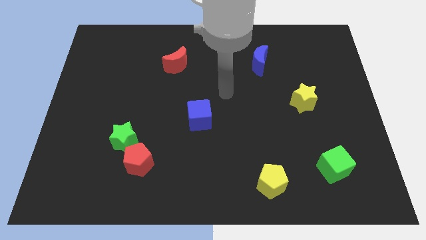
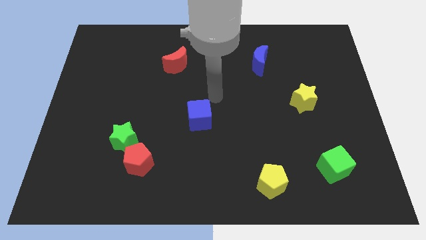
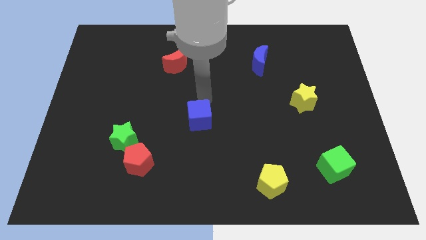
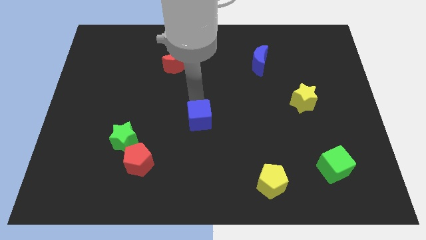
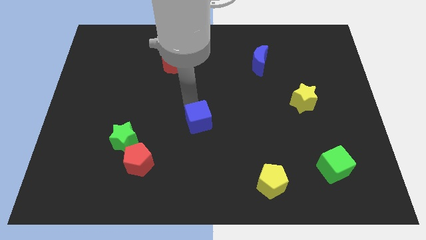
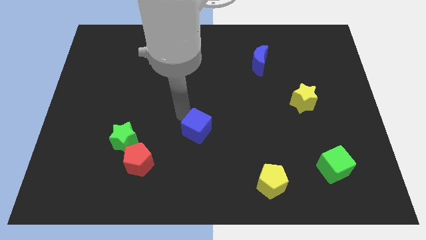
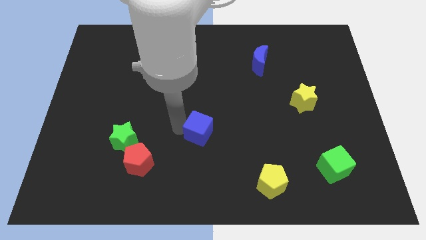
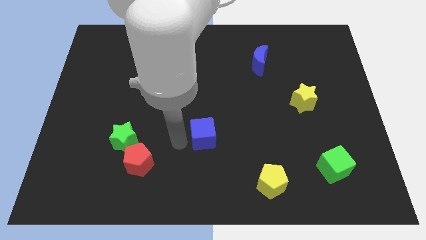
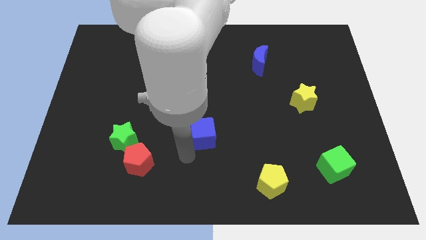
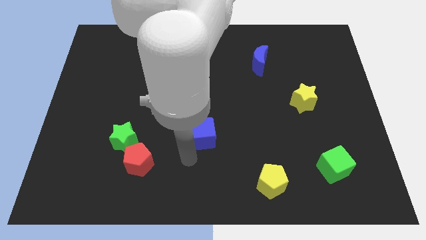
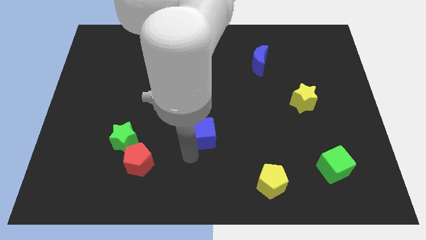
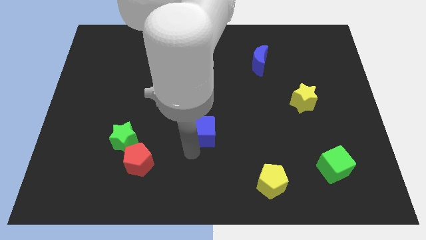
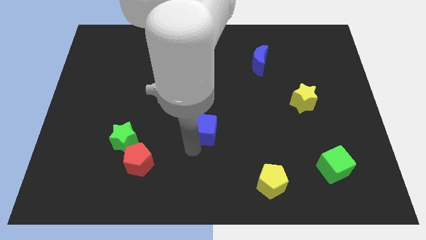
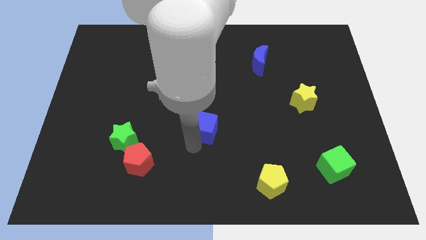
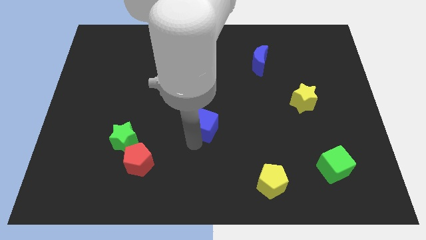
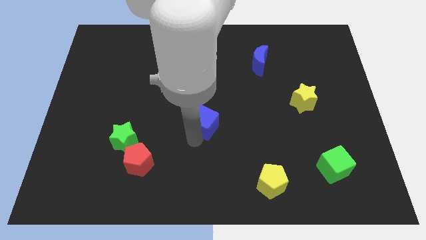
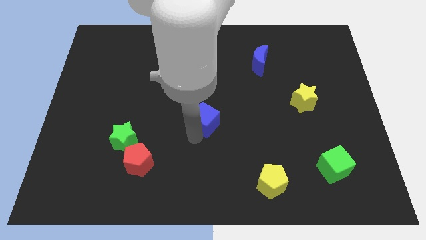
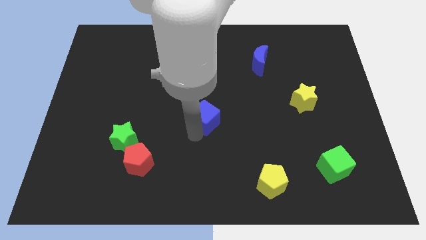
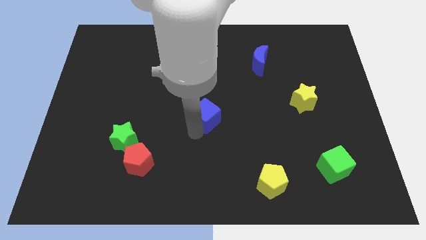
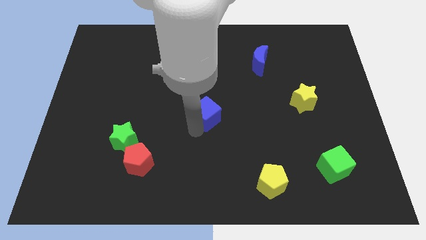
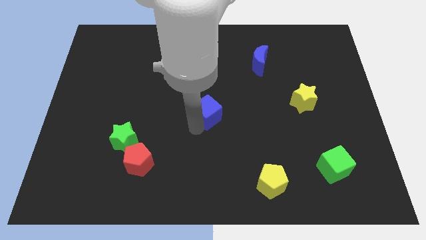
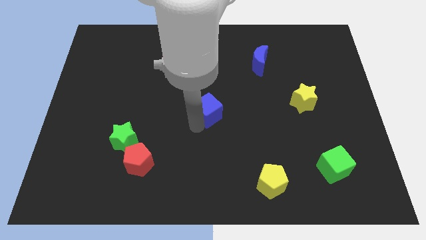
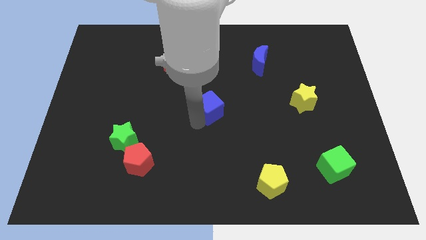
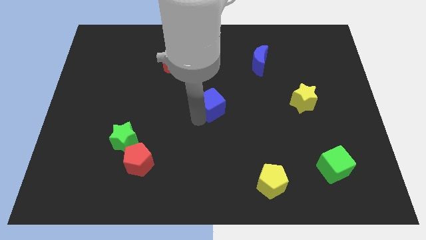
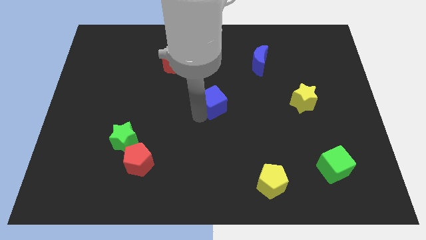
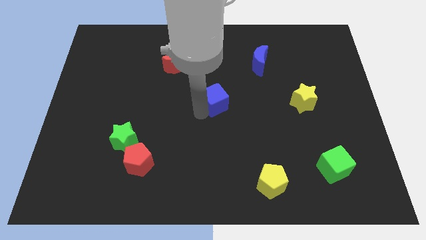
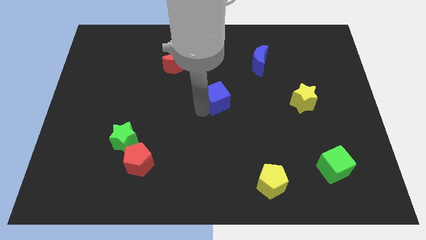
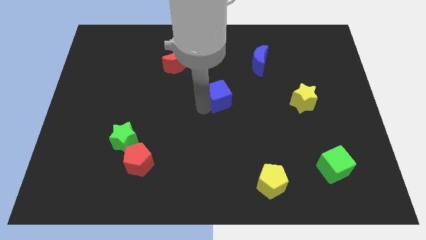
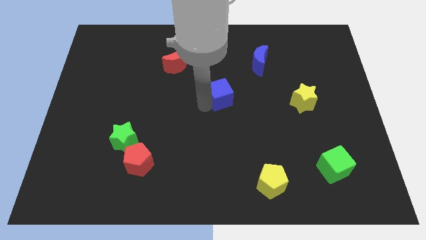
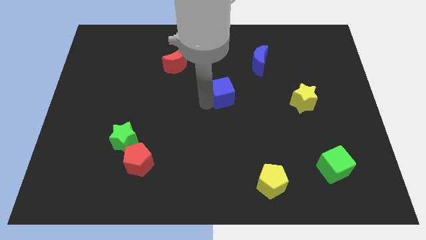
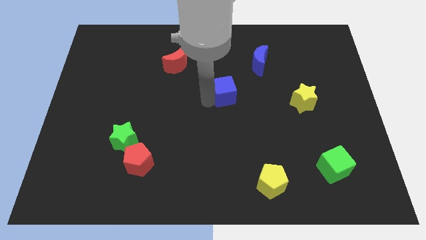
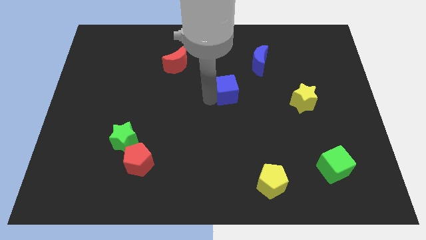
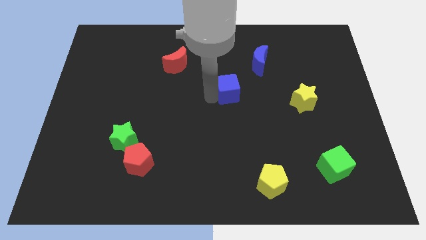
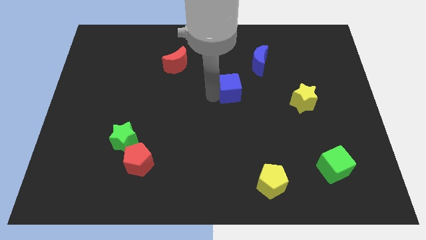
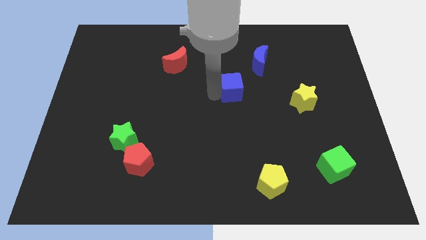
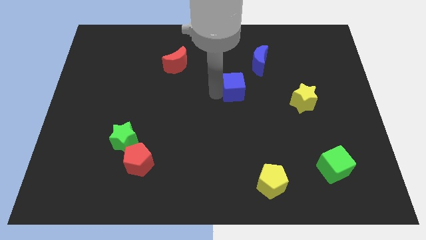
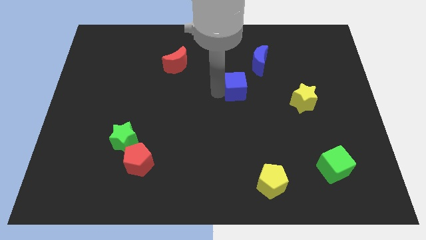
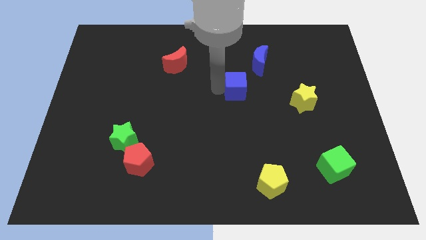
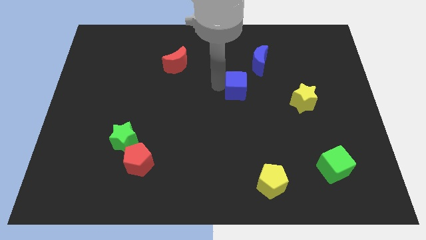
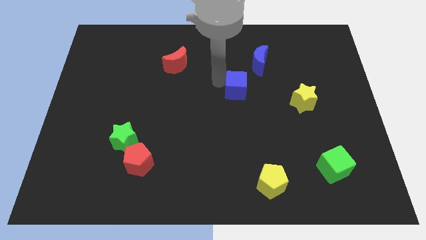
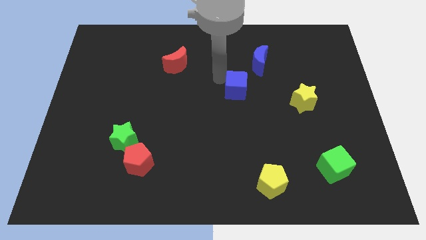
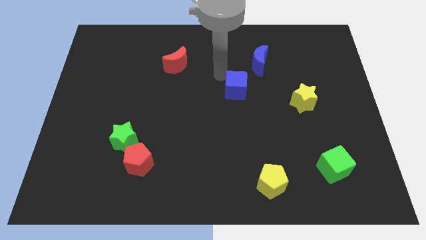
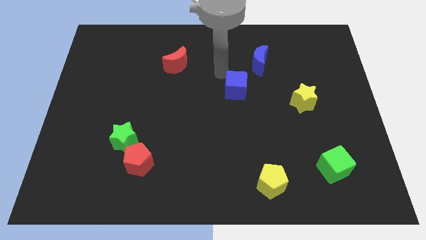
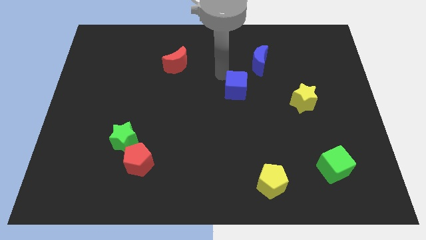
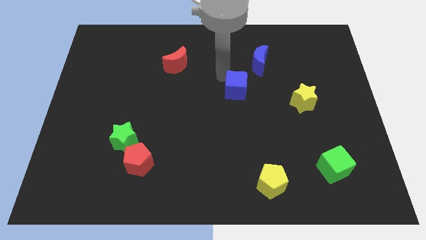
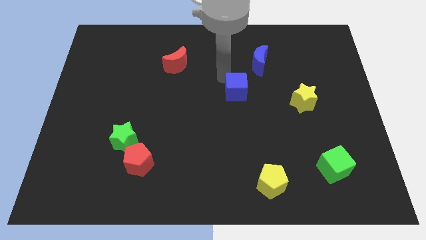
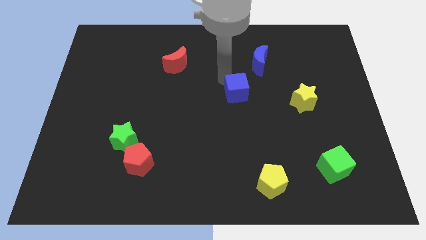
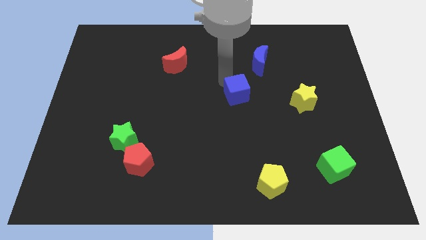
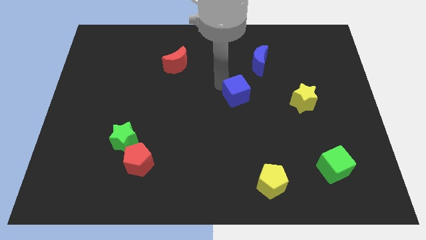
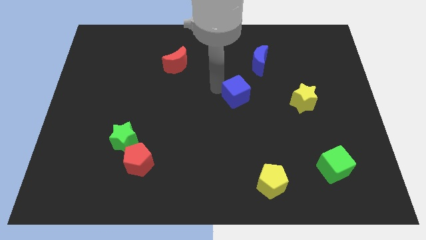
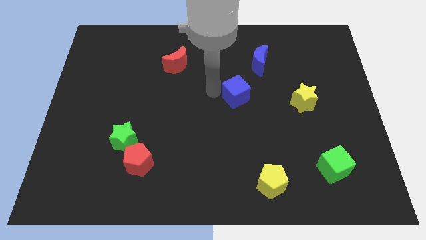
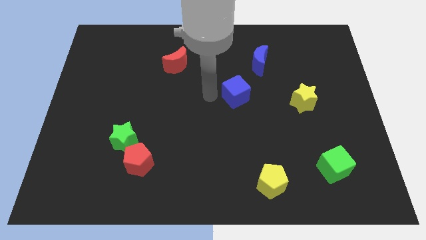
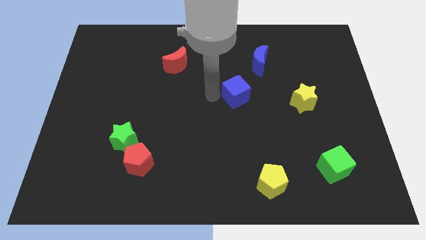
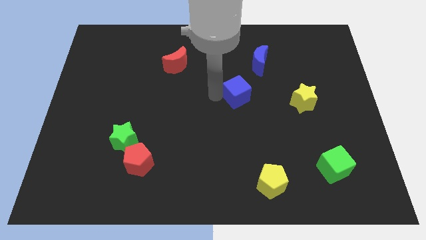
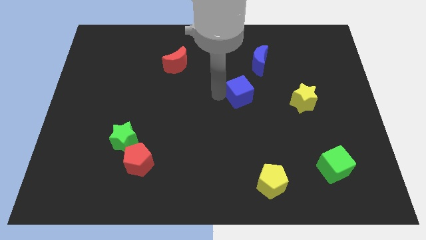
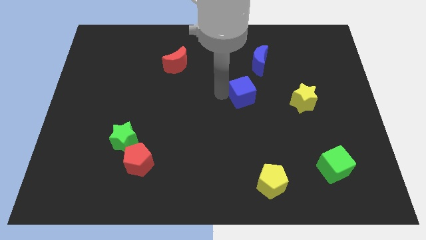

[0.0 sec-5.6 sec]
put the blue cube below the blue moon

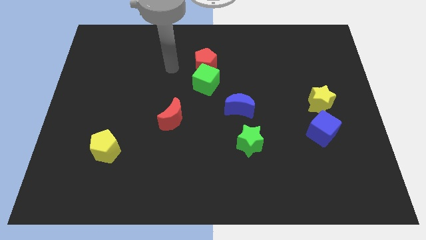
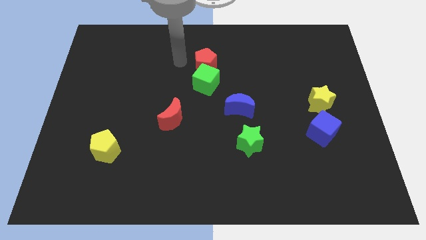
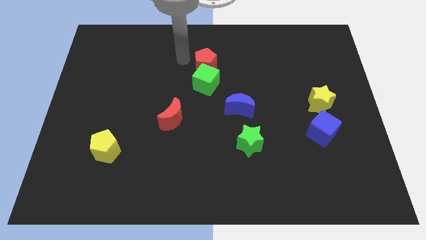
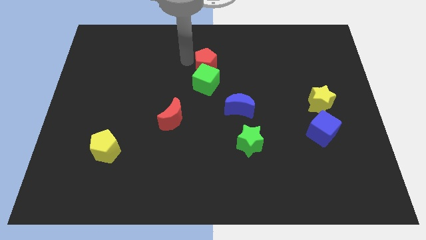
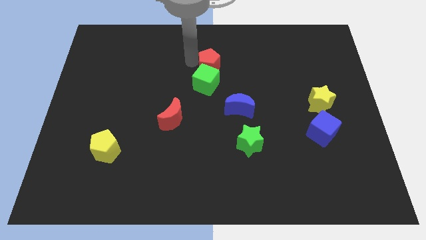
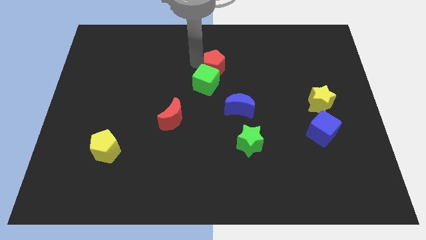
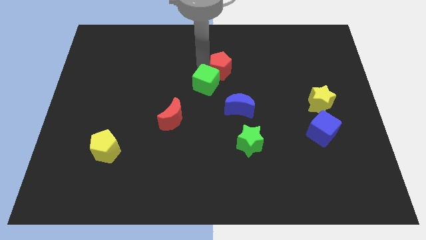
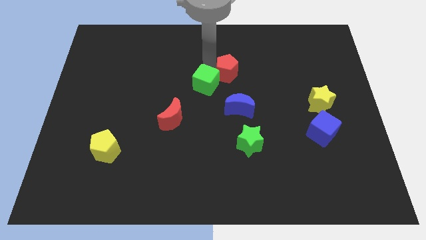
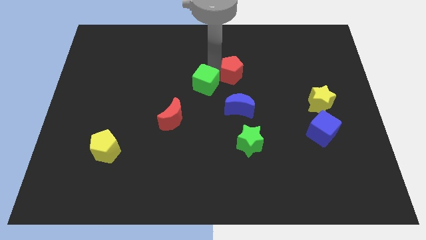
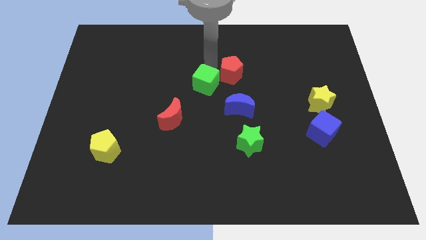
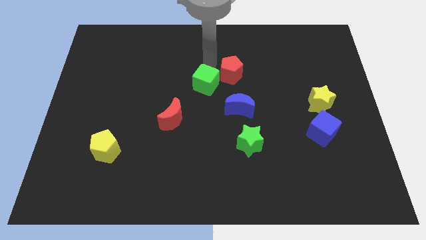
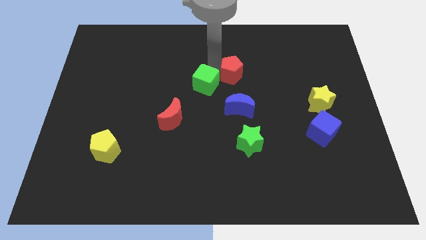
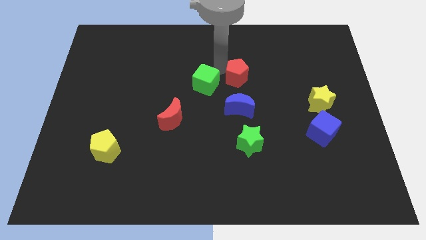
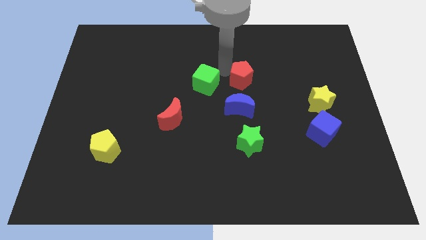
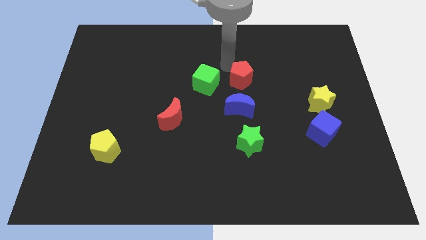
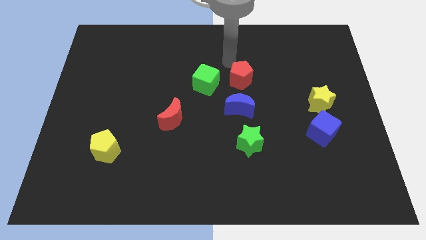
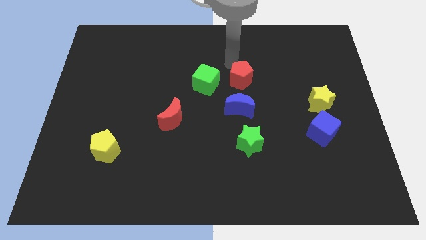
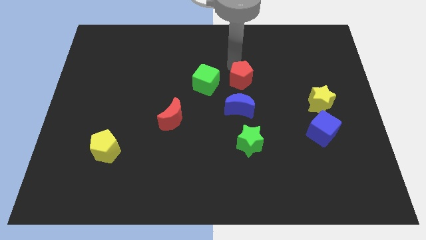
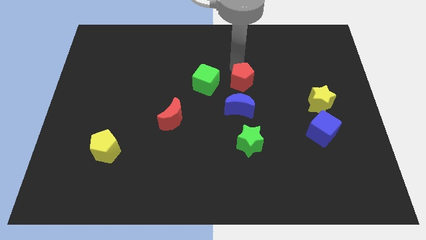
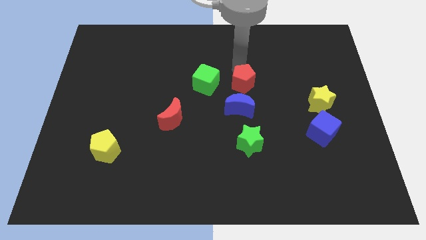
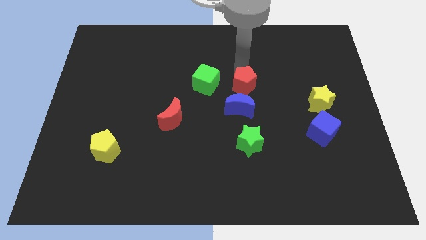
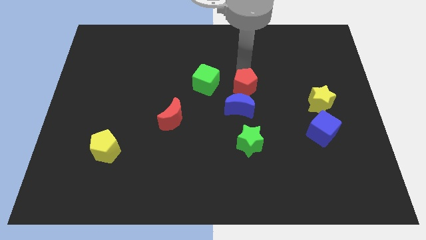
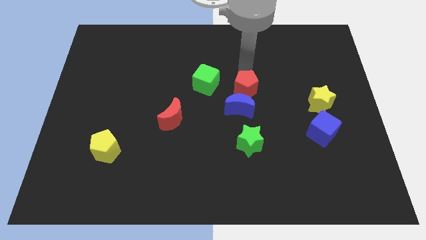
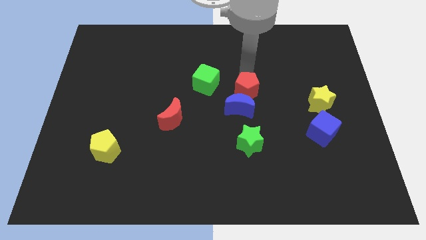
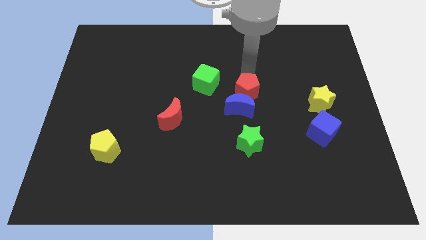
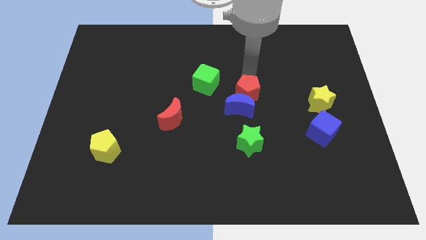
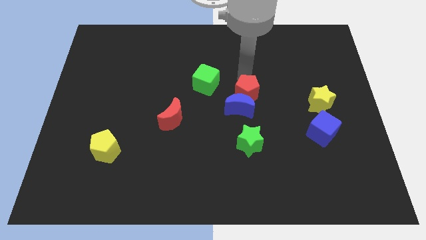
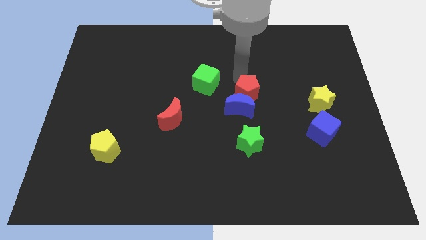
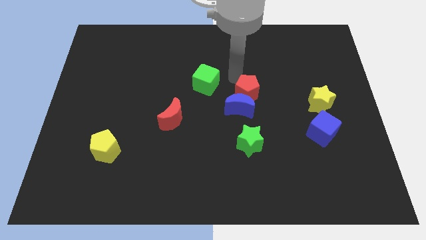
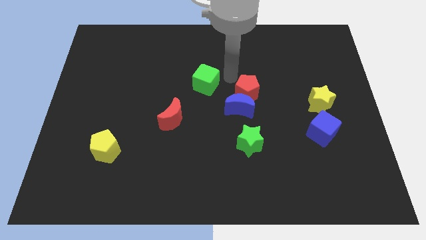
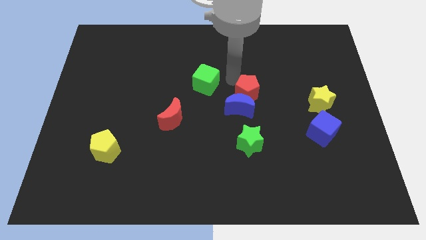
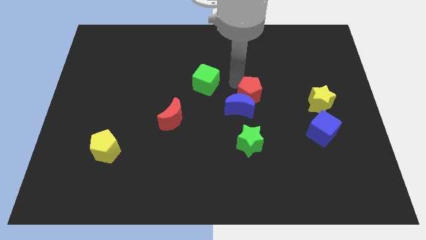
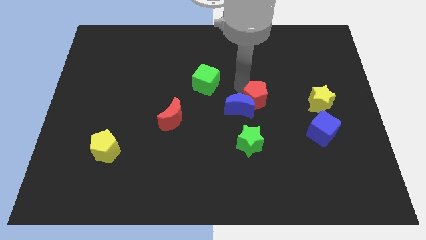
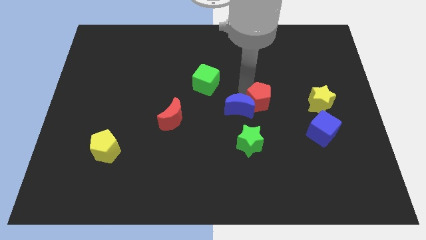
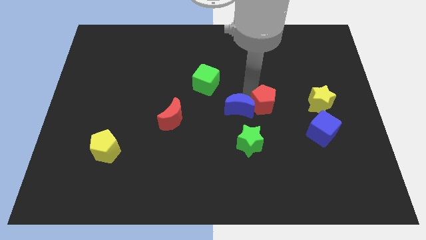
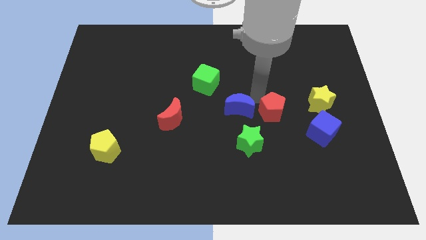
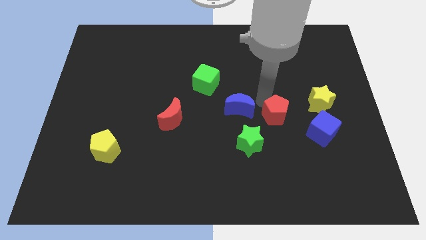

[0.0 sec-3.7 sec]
put the red pentagon just left of the blue cube
